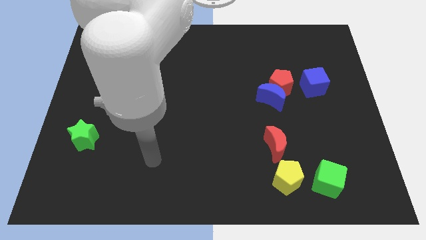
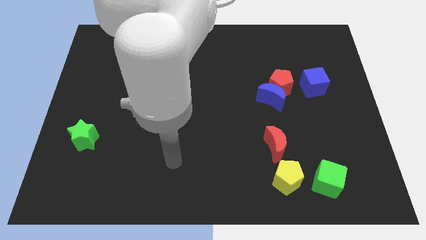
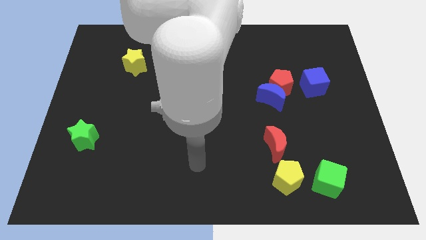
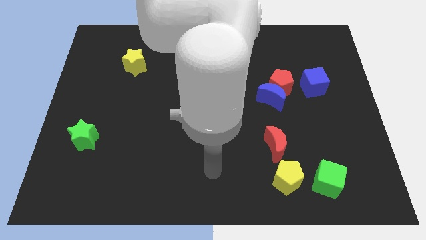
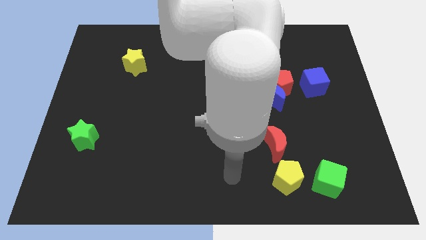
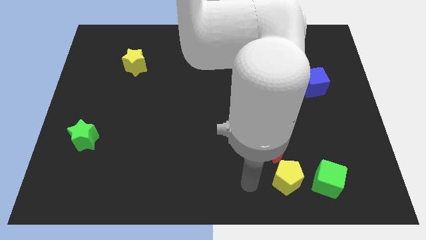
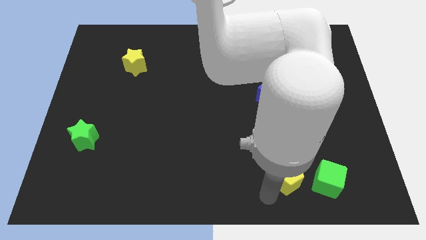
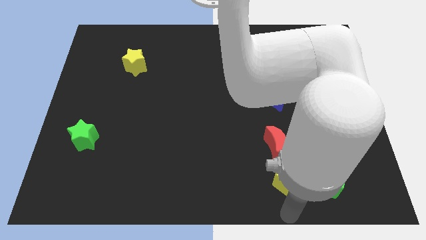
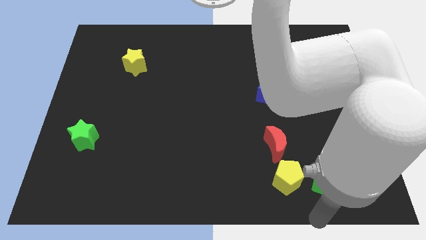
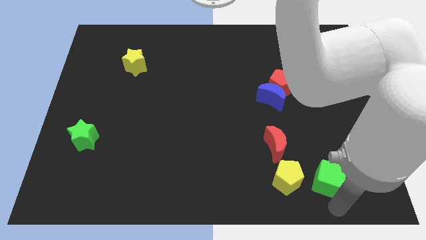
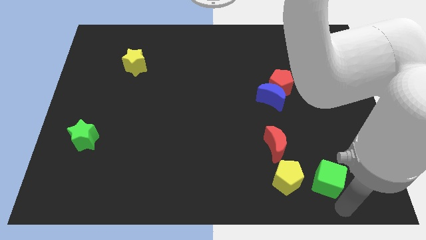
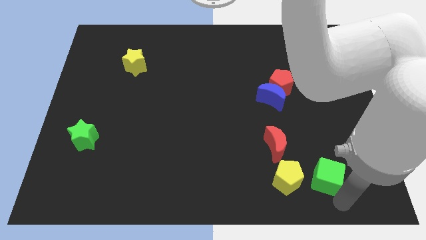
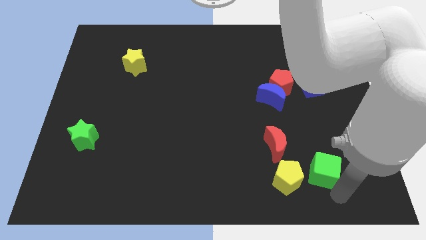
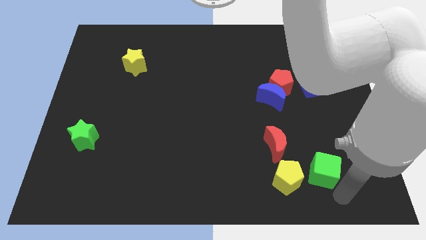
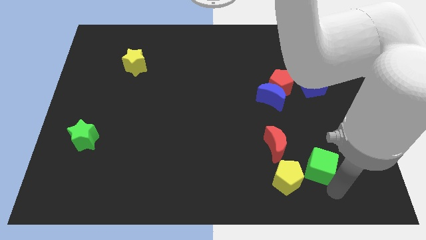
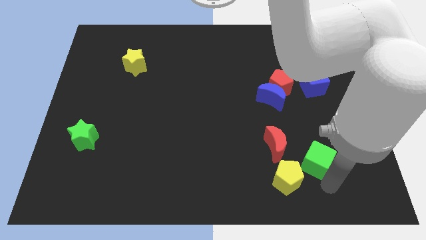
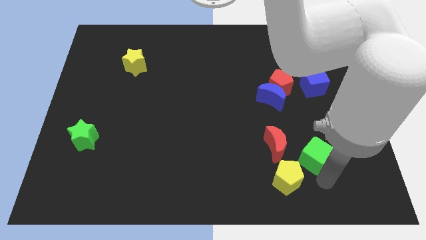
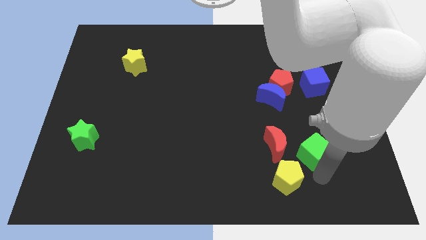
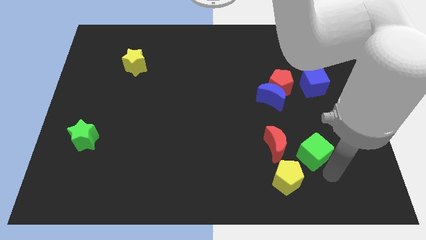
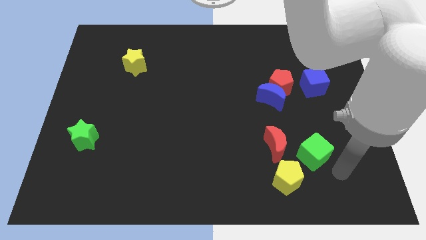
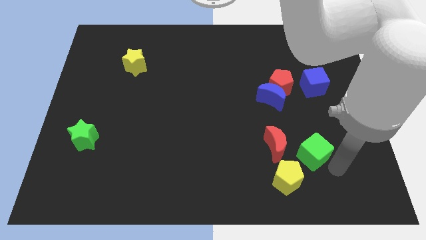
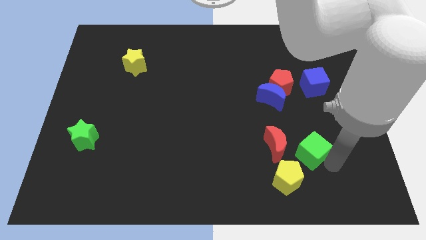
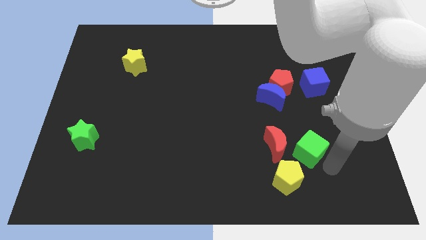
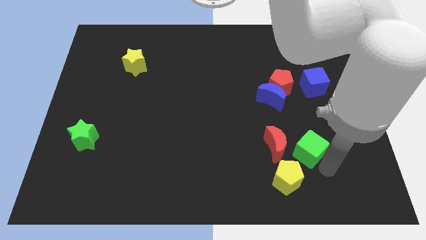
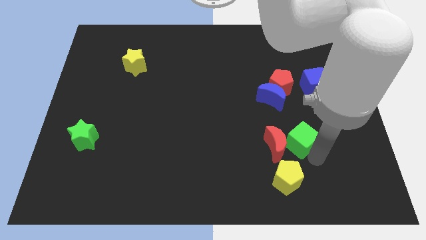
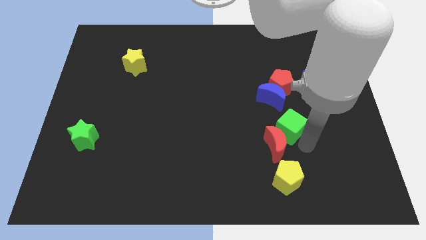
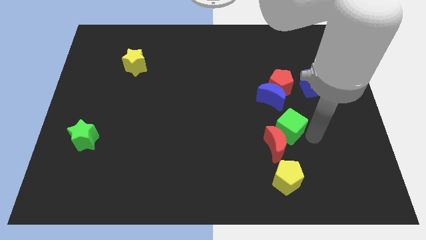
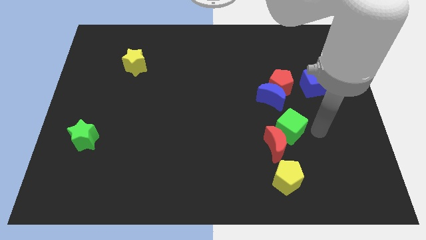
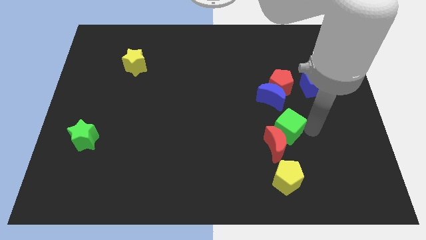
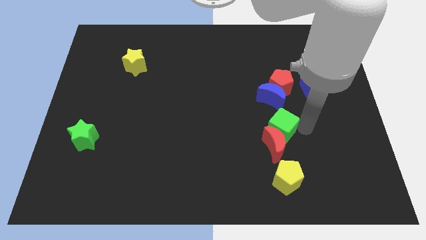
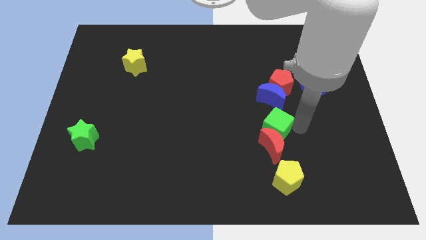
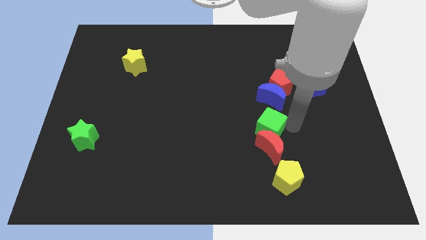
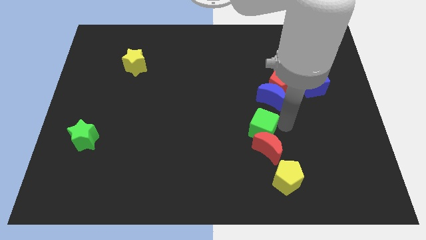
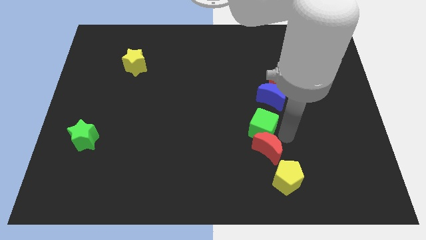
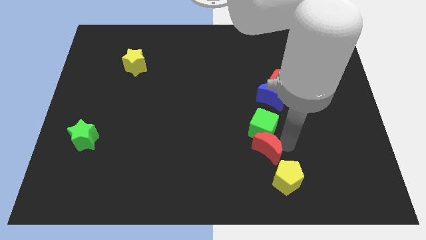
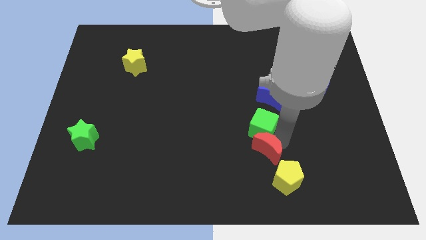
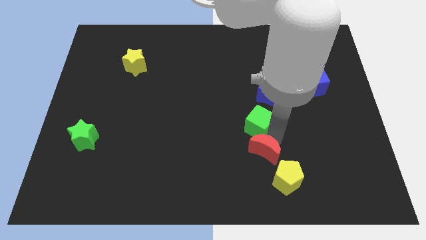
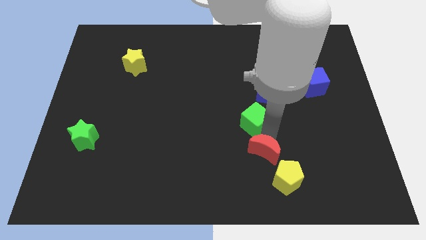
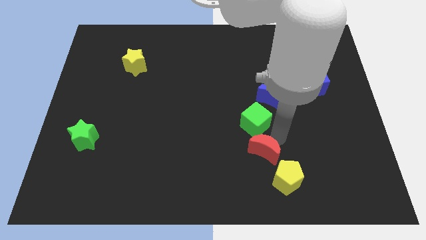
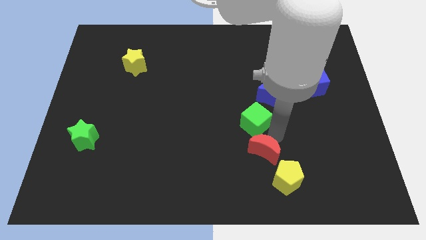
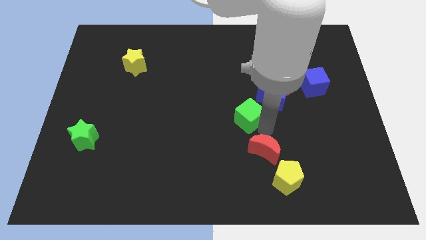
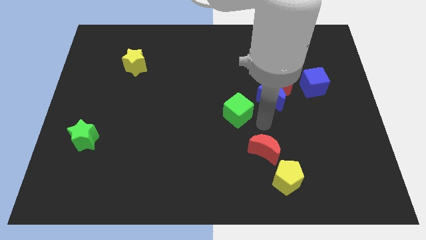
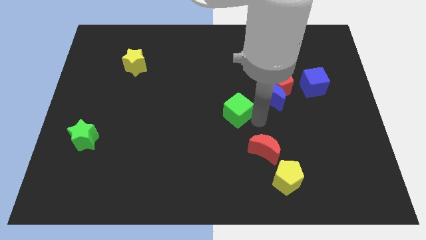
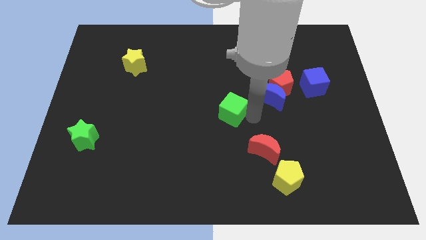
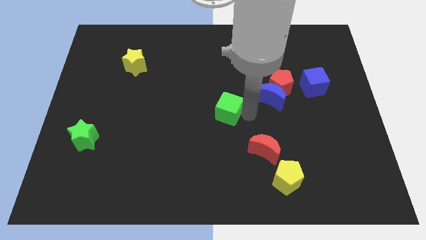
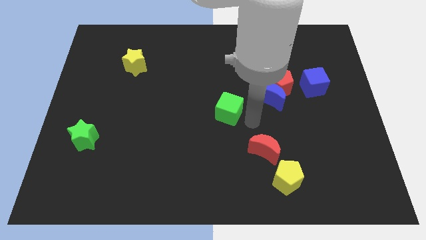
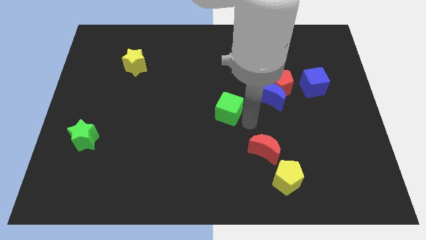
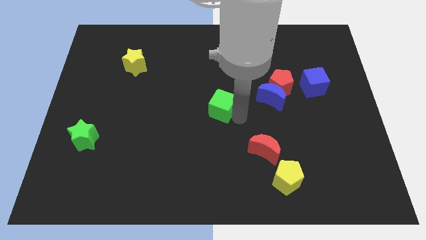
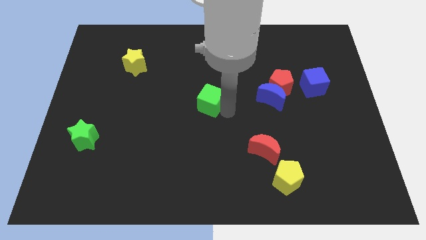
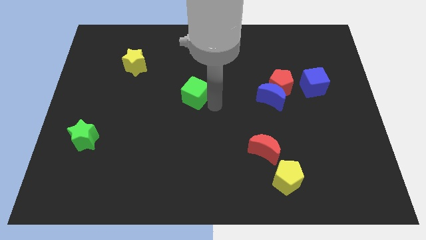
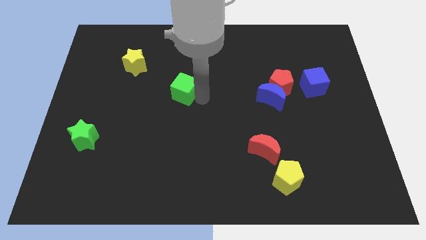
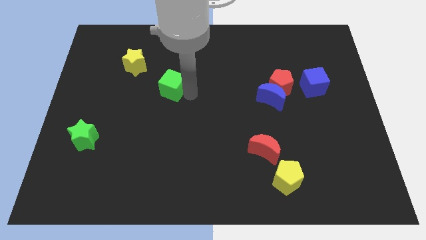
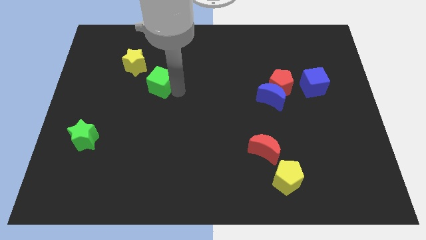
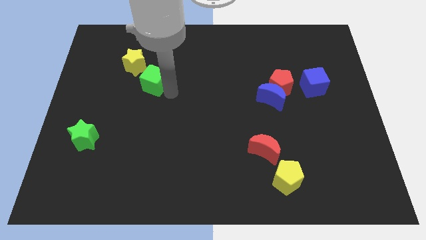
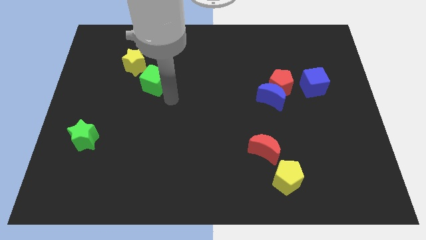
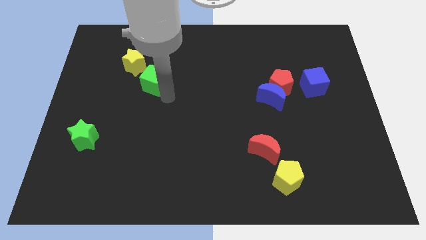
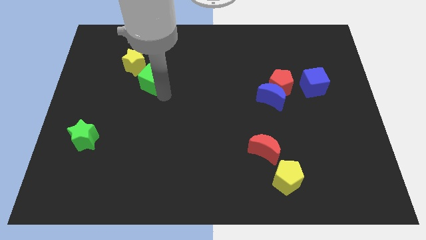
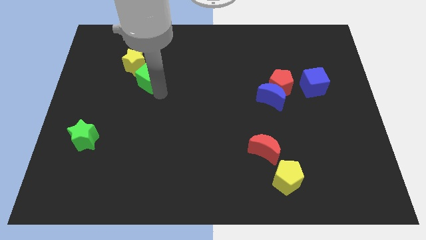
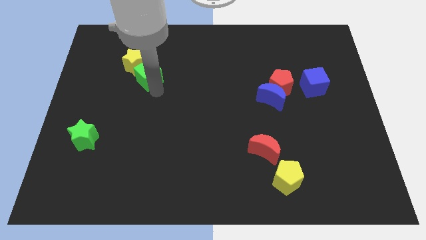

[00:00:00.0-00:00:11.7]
push the green cube towards the yellow star
